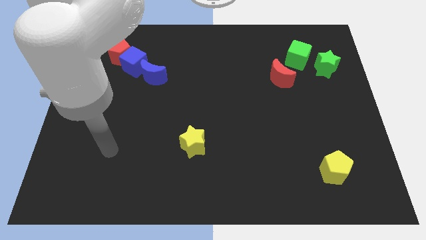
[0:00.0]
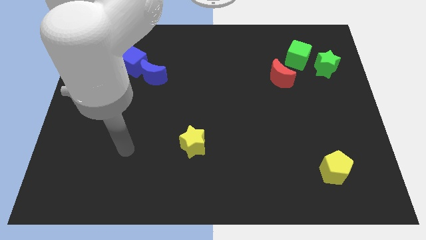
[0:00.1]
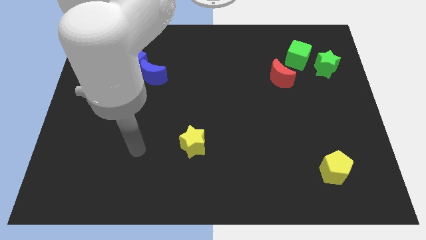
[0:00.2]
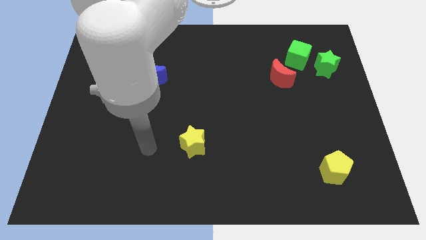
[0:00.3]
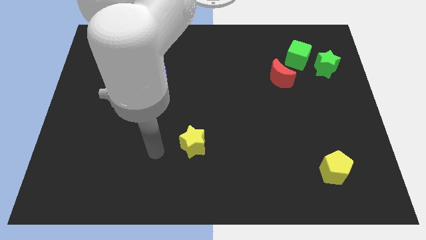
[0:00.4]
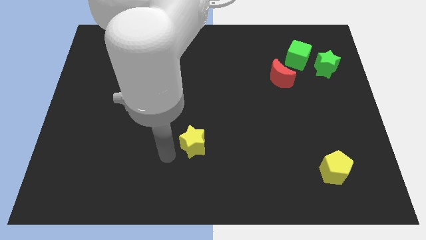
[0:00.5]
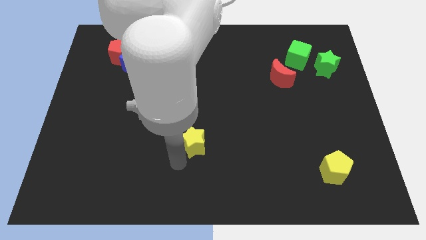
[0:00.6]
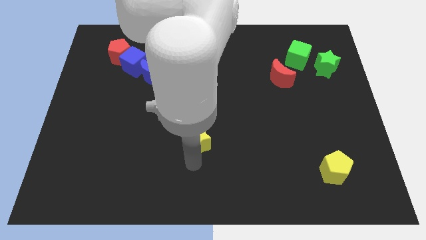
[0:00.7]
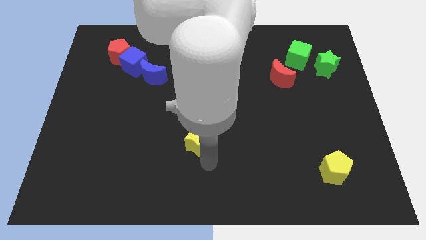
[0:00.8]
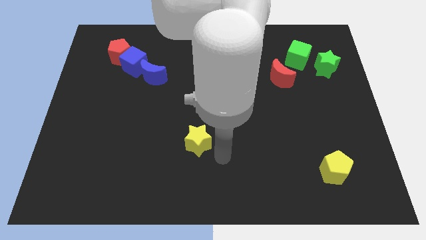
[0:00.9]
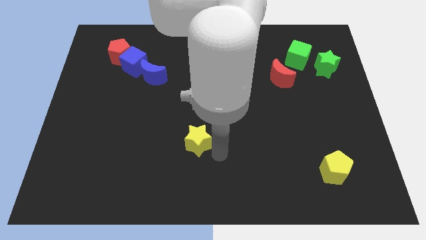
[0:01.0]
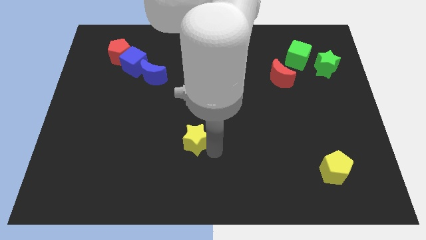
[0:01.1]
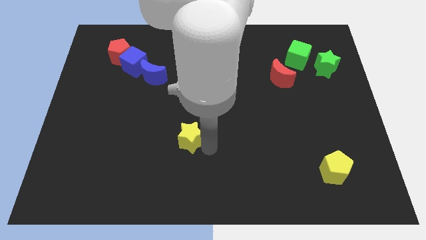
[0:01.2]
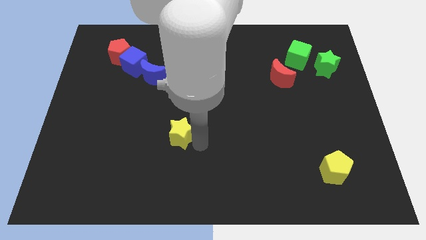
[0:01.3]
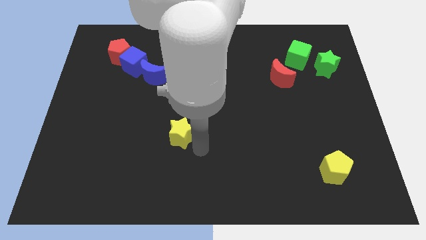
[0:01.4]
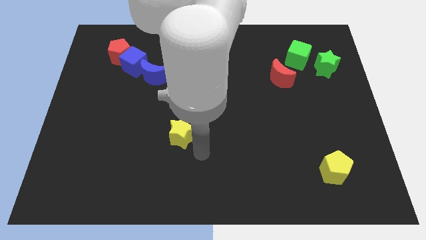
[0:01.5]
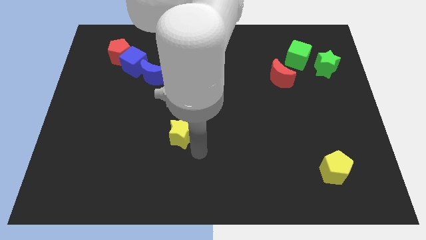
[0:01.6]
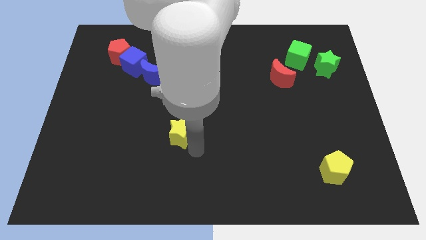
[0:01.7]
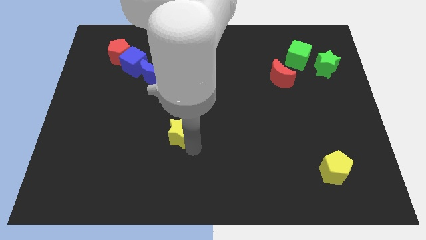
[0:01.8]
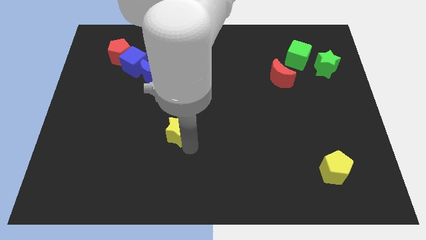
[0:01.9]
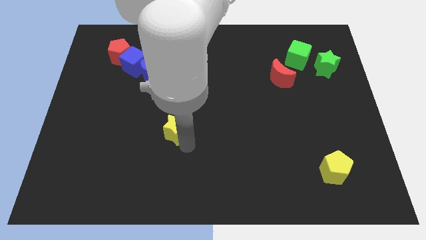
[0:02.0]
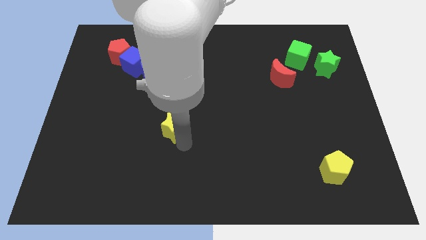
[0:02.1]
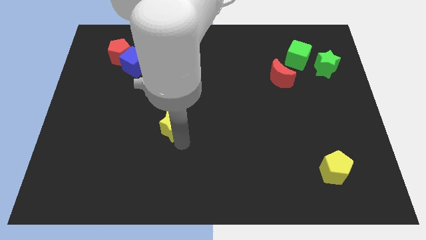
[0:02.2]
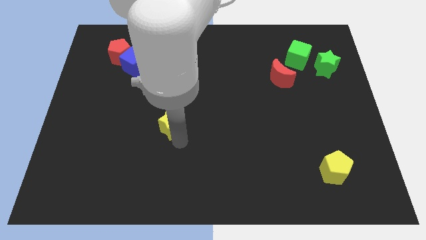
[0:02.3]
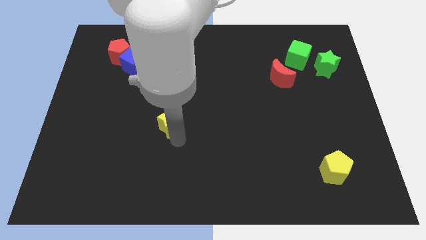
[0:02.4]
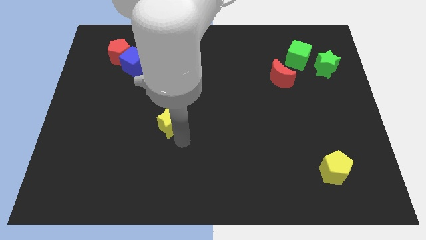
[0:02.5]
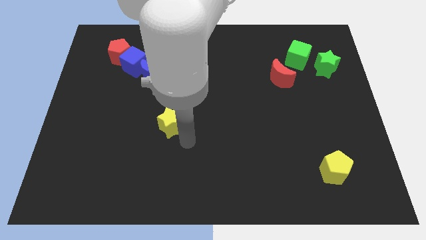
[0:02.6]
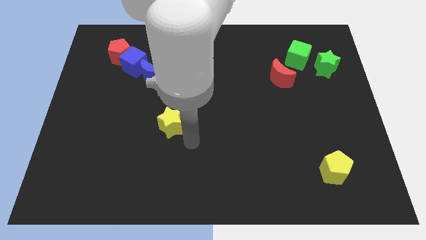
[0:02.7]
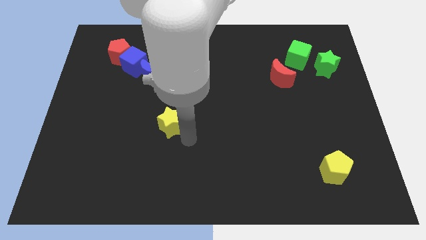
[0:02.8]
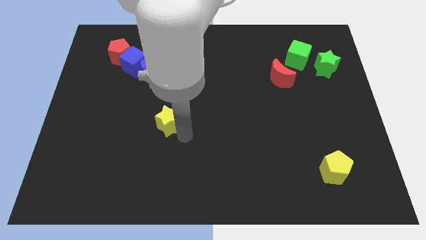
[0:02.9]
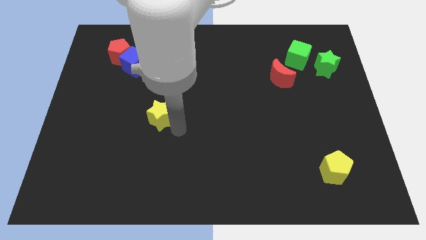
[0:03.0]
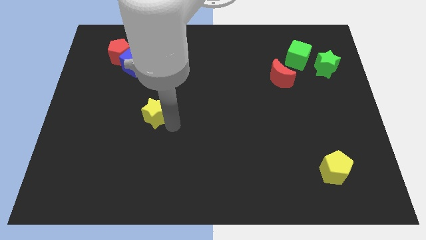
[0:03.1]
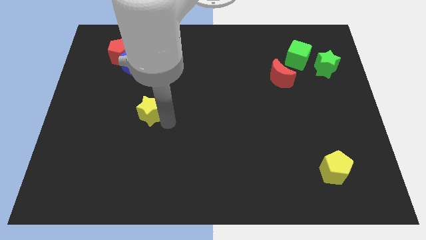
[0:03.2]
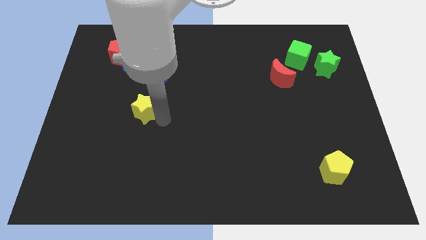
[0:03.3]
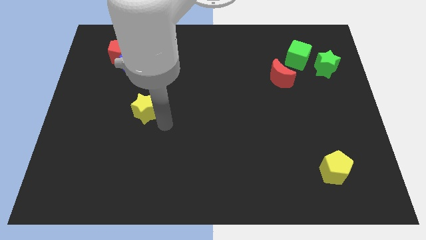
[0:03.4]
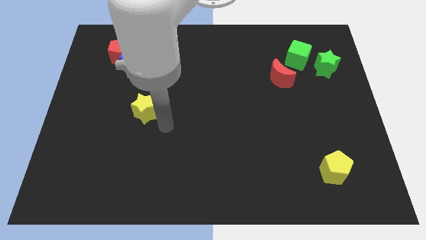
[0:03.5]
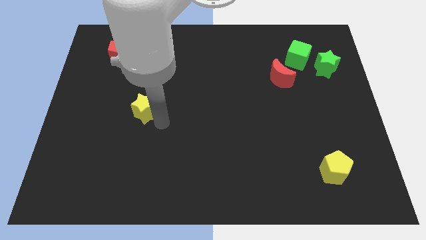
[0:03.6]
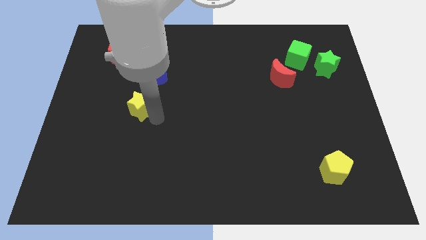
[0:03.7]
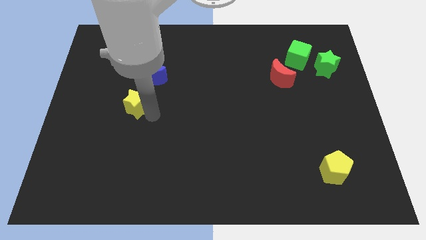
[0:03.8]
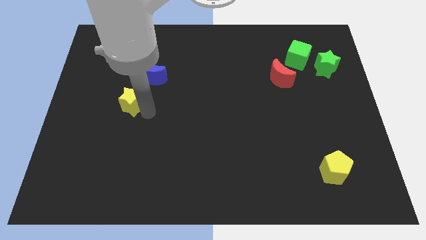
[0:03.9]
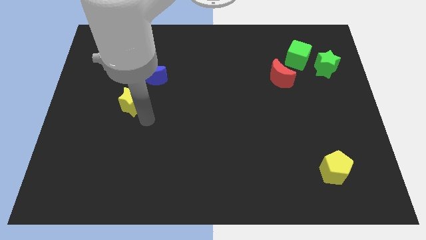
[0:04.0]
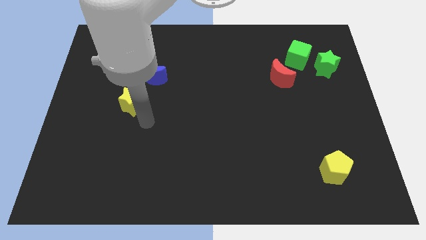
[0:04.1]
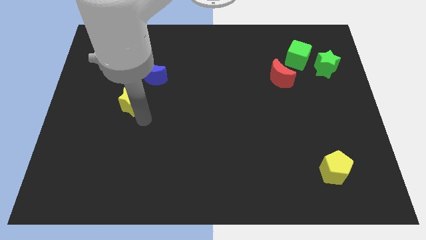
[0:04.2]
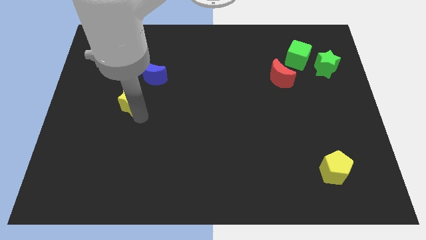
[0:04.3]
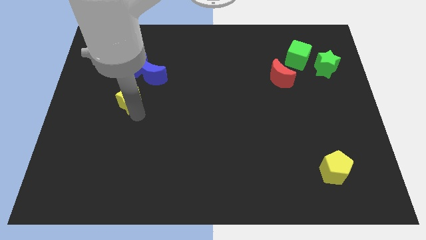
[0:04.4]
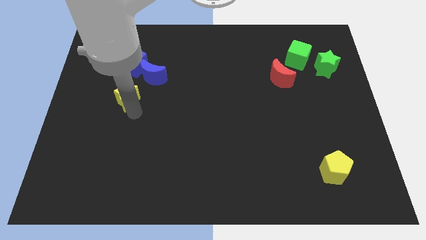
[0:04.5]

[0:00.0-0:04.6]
push the yellow star up and left

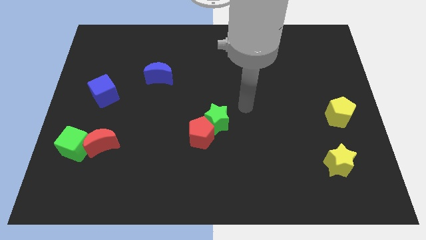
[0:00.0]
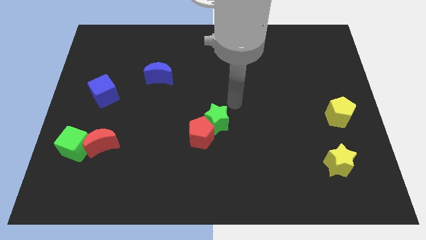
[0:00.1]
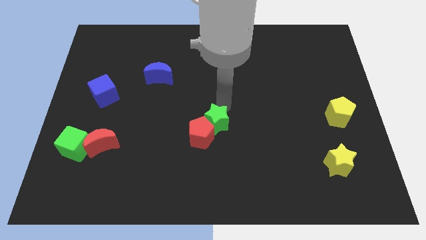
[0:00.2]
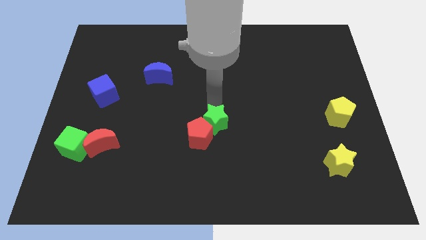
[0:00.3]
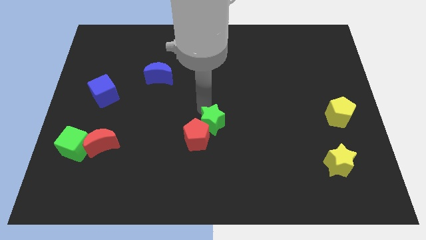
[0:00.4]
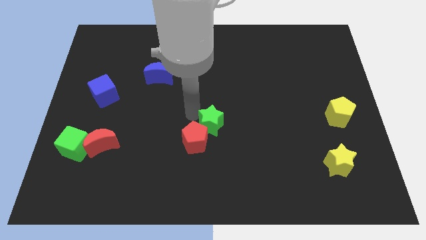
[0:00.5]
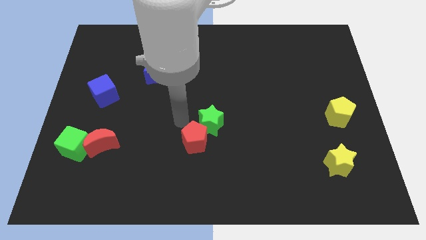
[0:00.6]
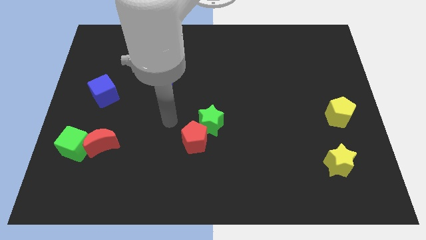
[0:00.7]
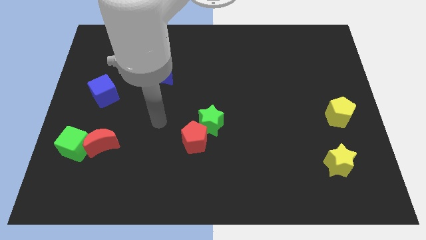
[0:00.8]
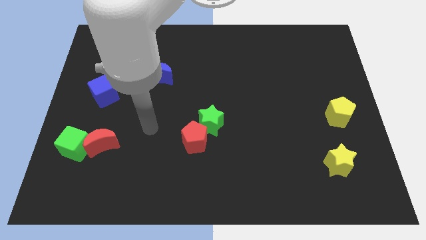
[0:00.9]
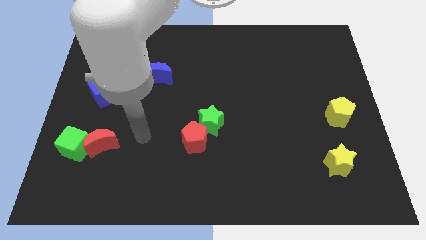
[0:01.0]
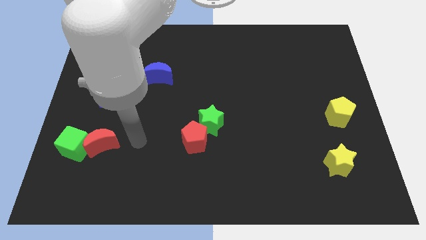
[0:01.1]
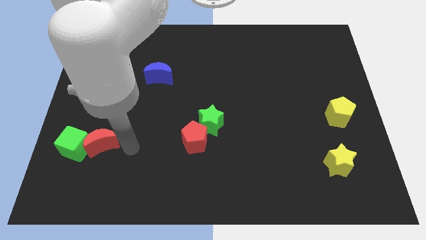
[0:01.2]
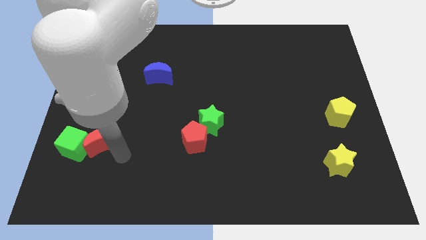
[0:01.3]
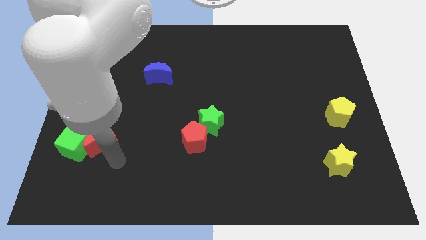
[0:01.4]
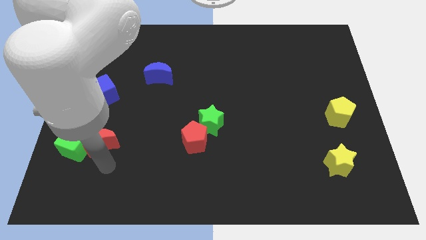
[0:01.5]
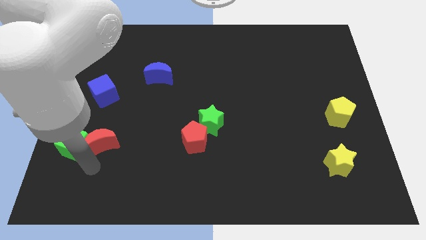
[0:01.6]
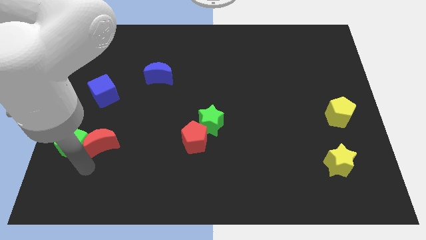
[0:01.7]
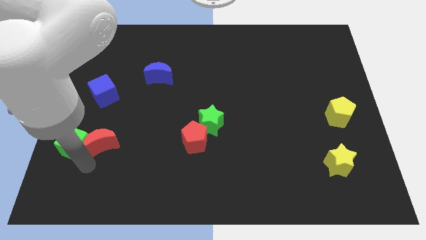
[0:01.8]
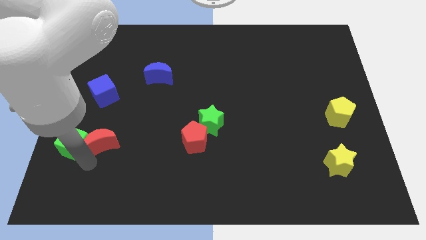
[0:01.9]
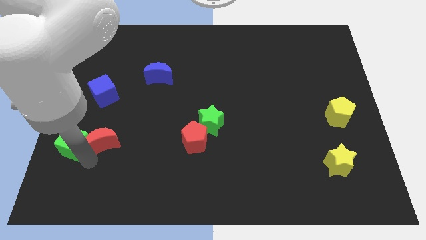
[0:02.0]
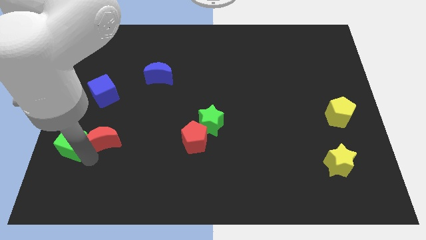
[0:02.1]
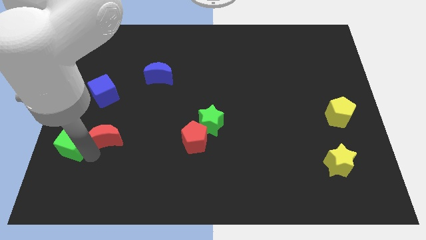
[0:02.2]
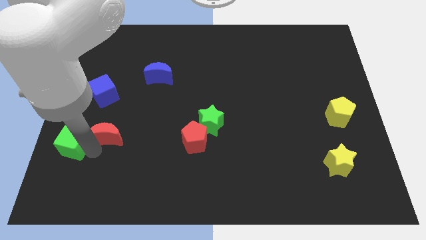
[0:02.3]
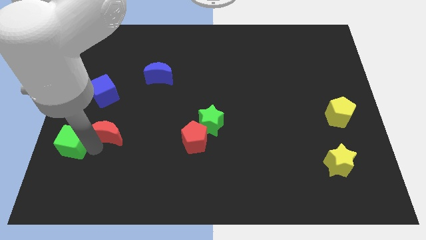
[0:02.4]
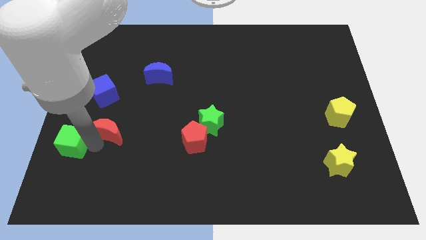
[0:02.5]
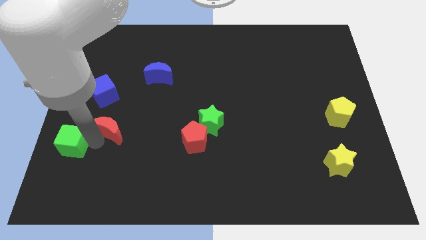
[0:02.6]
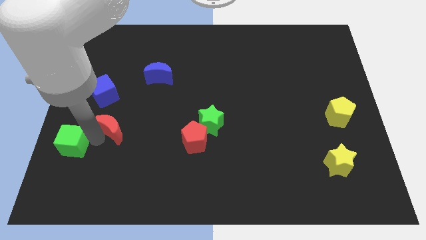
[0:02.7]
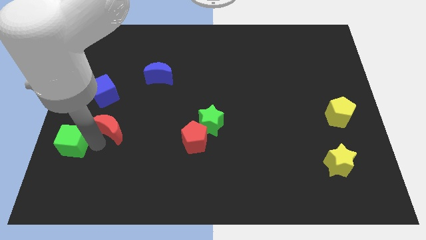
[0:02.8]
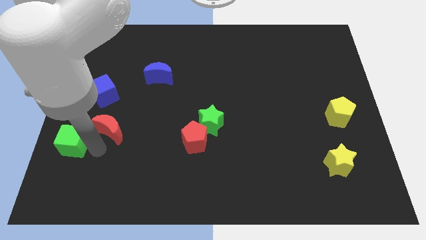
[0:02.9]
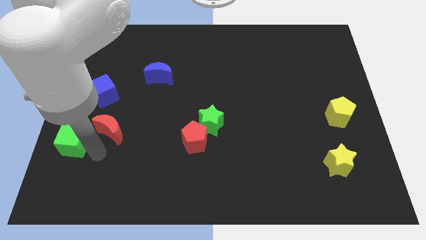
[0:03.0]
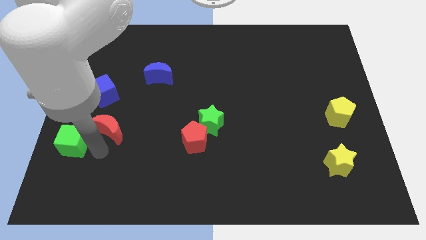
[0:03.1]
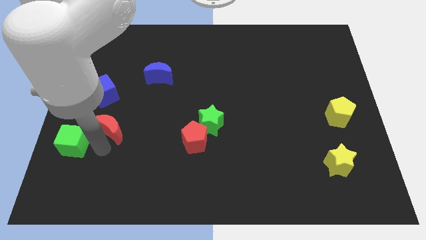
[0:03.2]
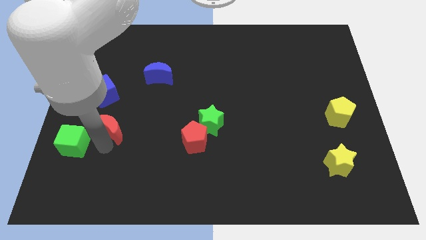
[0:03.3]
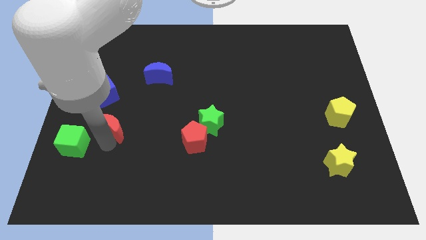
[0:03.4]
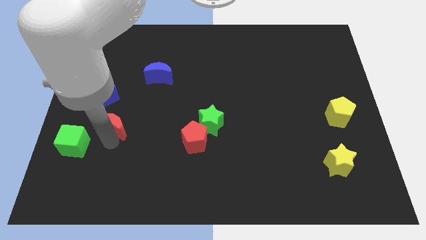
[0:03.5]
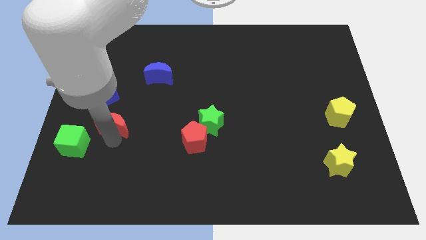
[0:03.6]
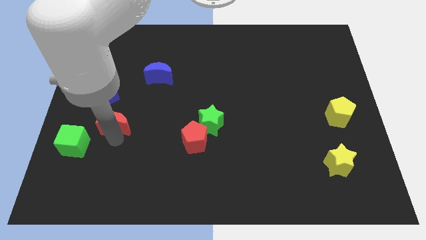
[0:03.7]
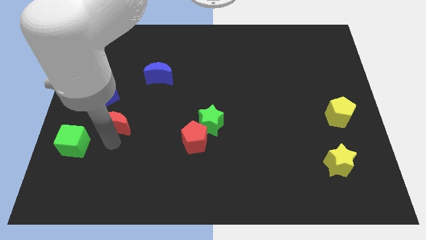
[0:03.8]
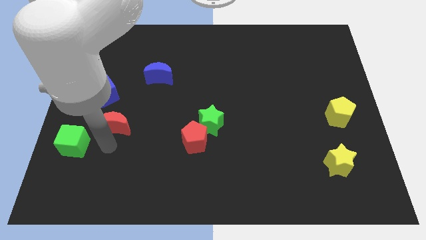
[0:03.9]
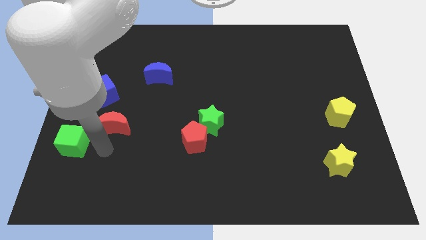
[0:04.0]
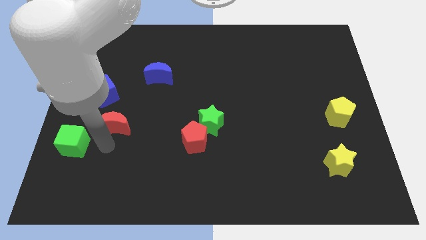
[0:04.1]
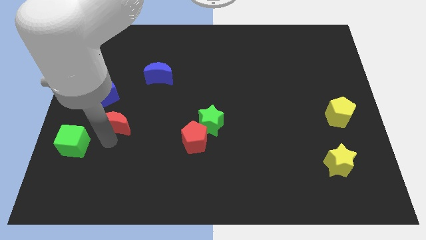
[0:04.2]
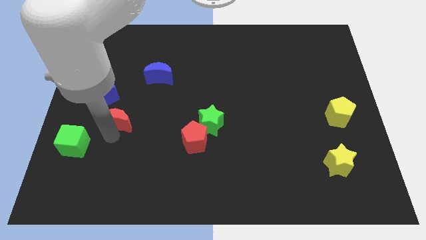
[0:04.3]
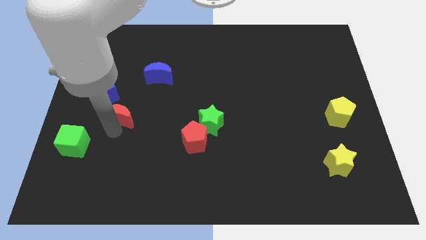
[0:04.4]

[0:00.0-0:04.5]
move the red moon upwards slightly
